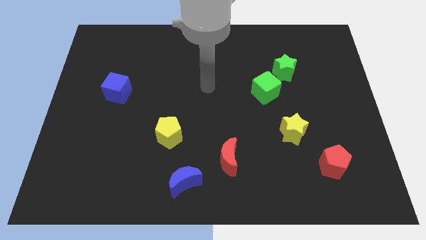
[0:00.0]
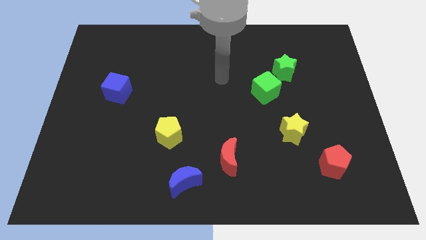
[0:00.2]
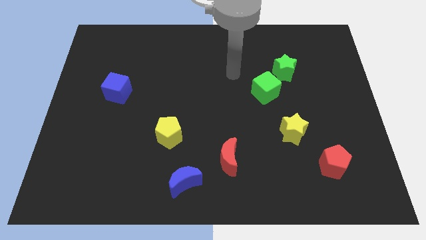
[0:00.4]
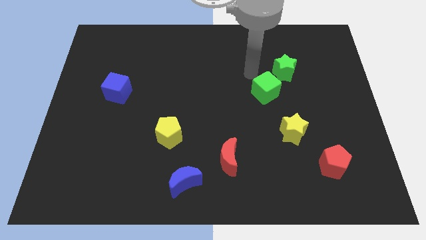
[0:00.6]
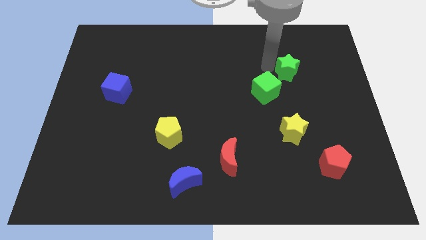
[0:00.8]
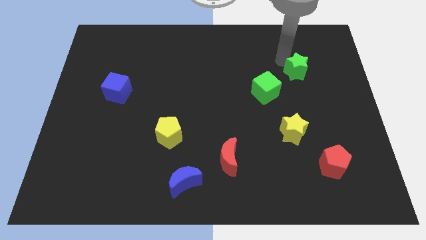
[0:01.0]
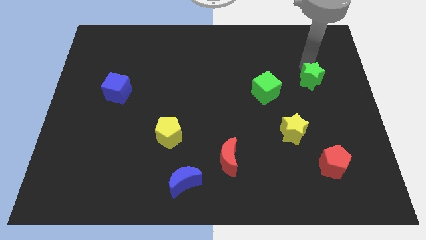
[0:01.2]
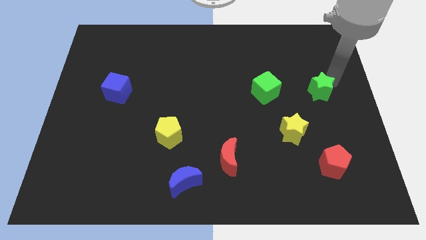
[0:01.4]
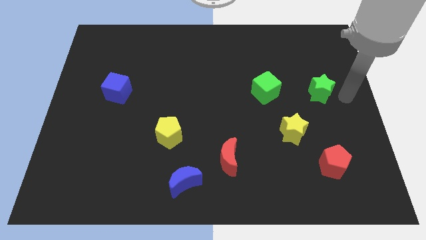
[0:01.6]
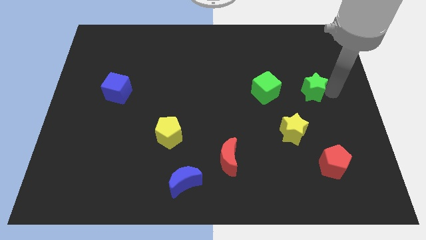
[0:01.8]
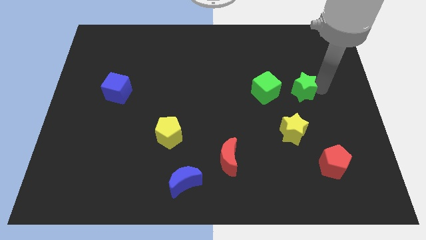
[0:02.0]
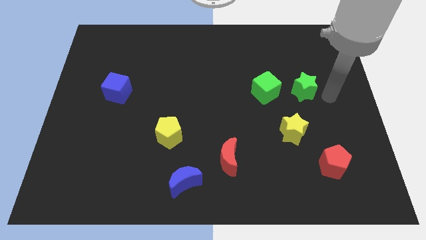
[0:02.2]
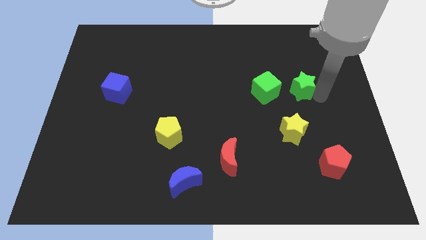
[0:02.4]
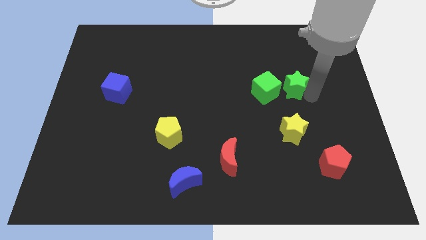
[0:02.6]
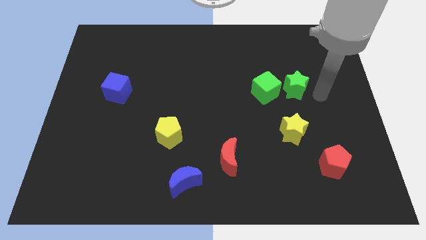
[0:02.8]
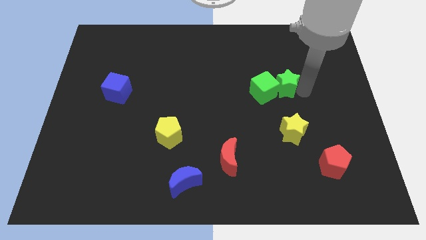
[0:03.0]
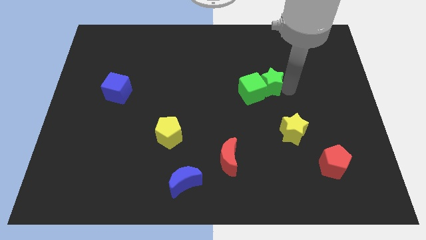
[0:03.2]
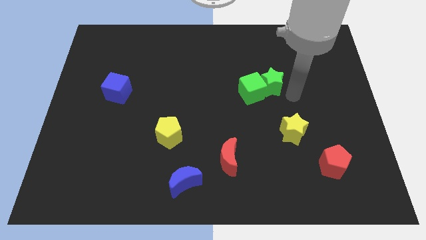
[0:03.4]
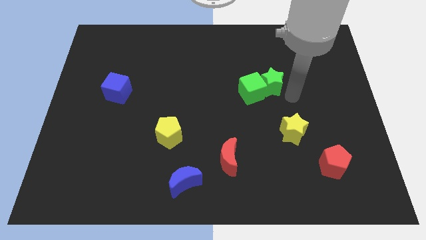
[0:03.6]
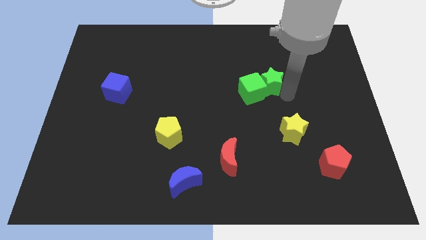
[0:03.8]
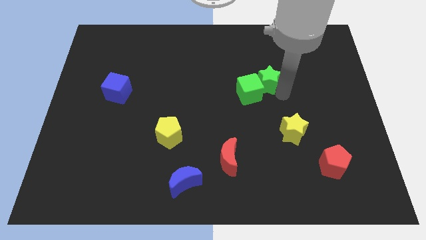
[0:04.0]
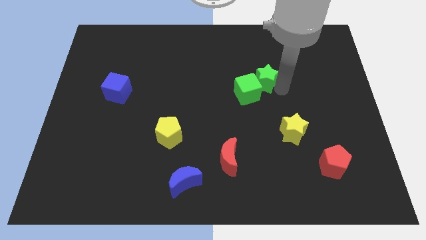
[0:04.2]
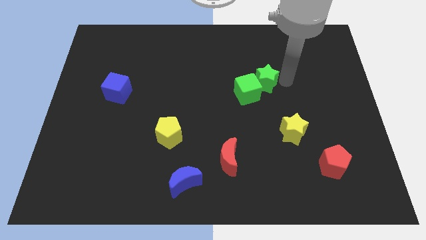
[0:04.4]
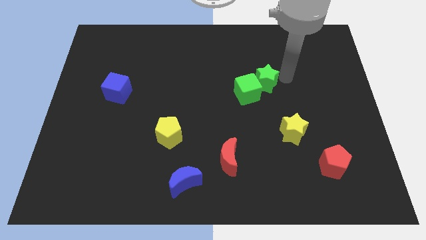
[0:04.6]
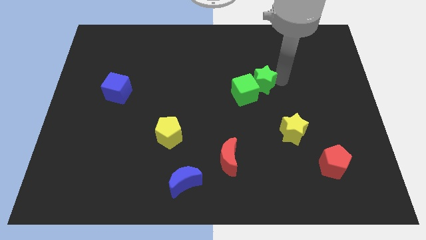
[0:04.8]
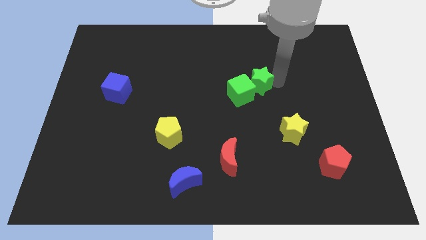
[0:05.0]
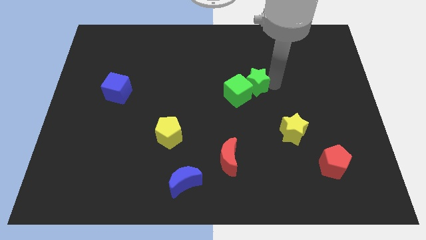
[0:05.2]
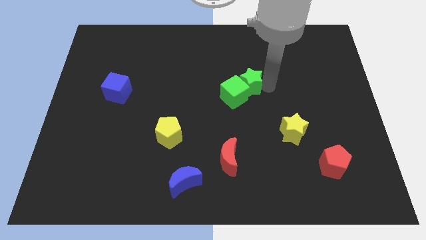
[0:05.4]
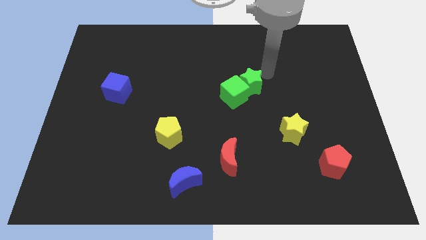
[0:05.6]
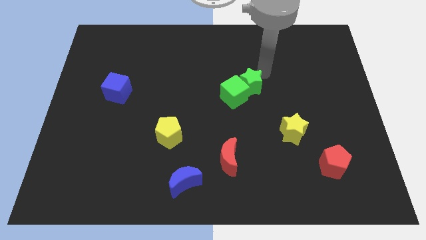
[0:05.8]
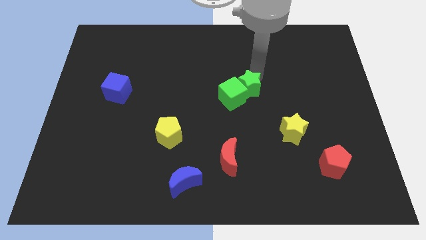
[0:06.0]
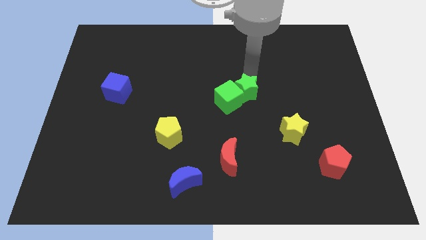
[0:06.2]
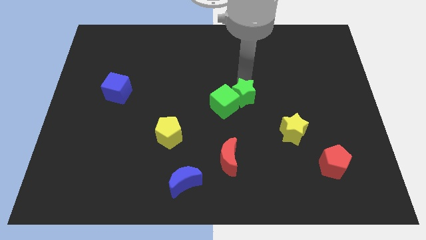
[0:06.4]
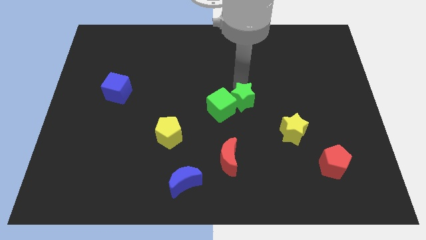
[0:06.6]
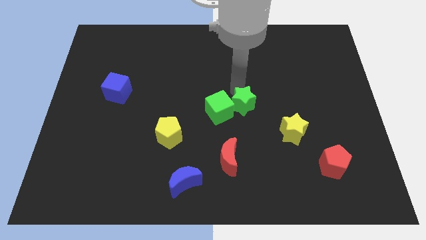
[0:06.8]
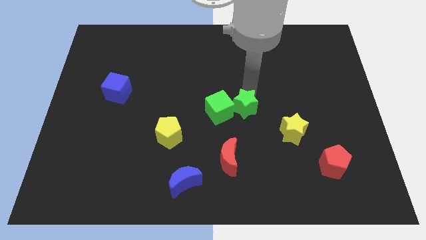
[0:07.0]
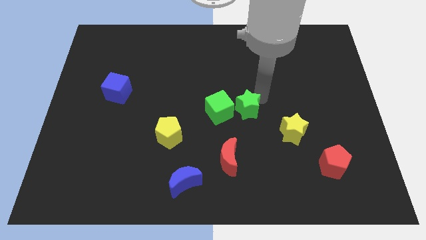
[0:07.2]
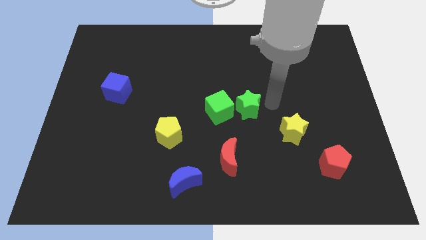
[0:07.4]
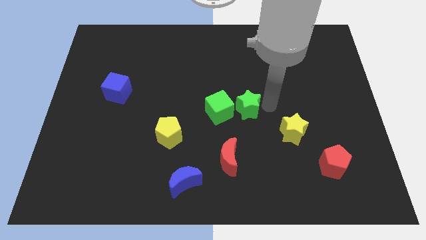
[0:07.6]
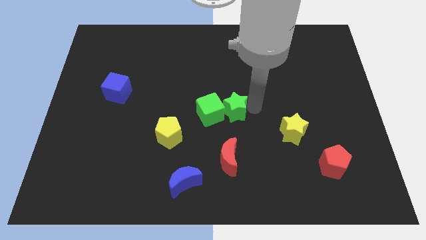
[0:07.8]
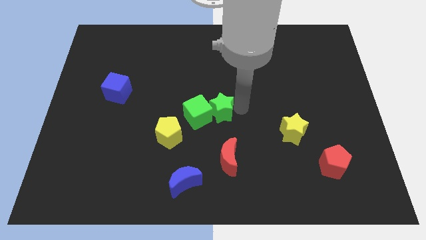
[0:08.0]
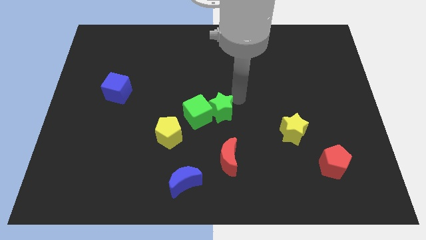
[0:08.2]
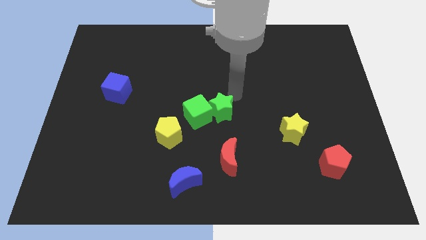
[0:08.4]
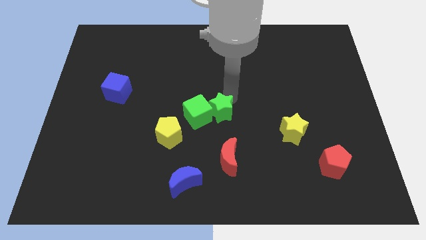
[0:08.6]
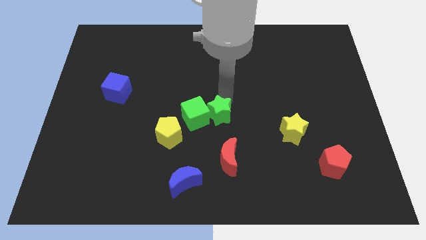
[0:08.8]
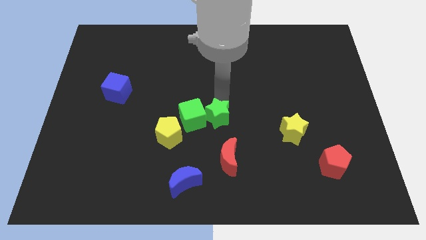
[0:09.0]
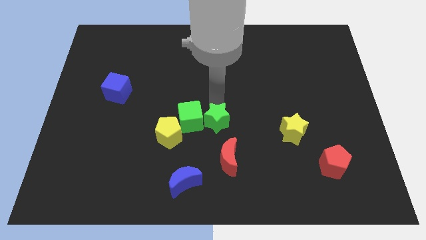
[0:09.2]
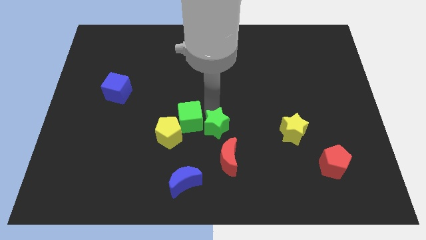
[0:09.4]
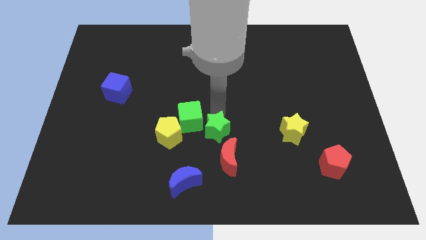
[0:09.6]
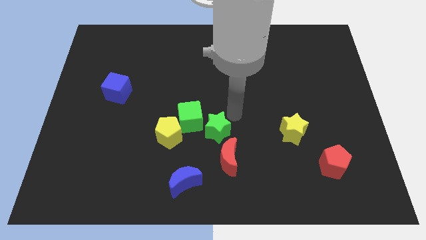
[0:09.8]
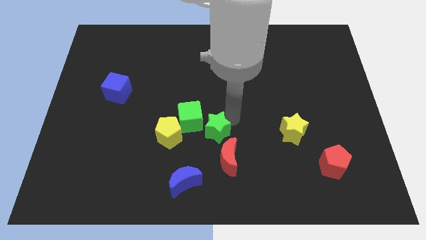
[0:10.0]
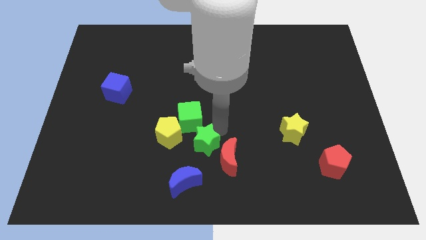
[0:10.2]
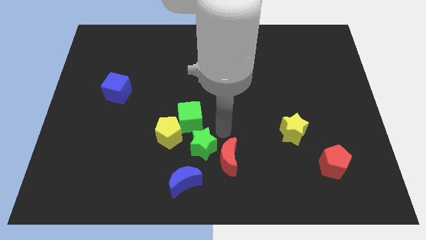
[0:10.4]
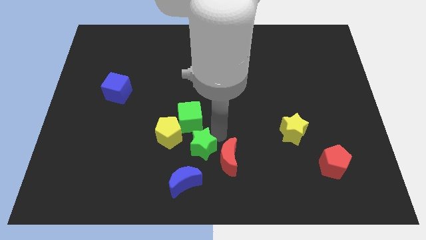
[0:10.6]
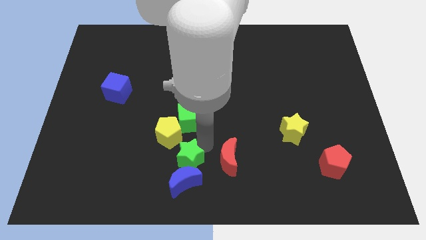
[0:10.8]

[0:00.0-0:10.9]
move the green star below the yellow pentagon

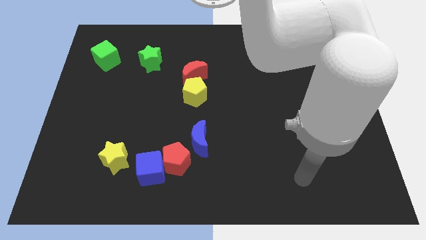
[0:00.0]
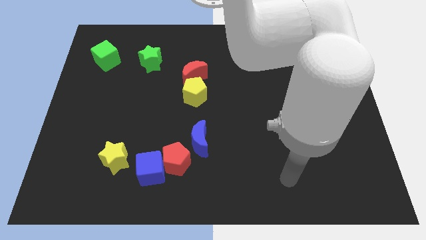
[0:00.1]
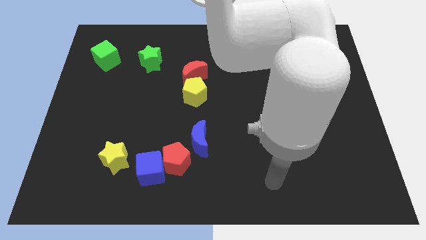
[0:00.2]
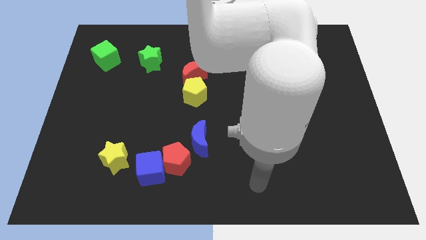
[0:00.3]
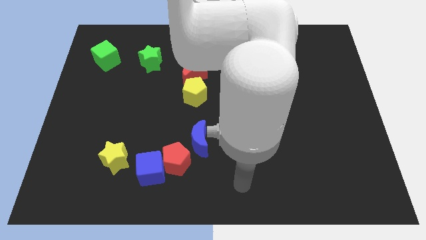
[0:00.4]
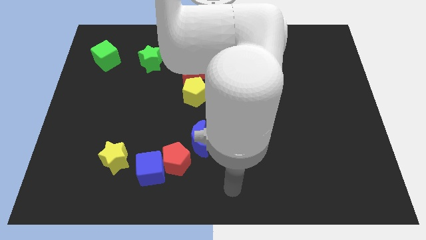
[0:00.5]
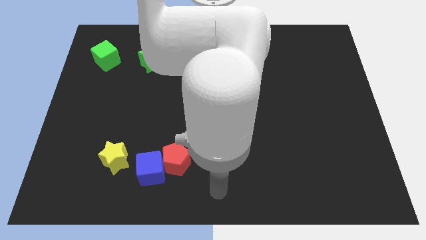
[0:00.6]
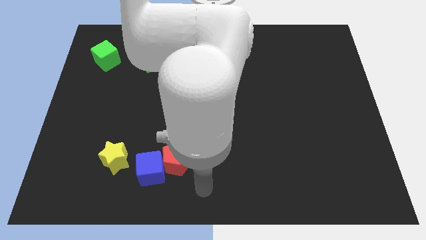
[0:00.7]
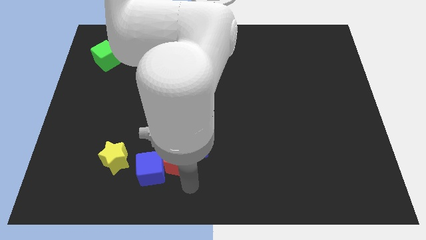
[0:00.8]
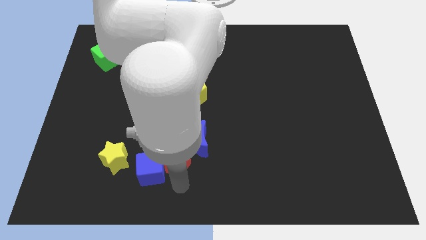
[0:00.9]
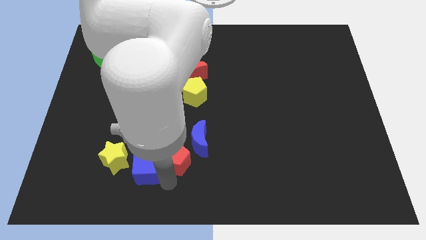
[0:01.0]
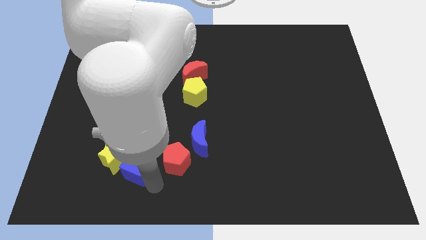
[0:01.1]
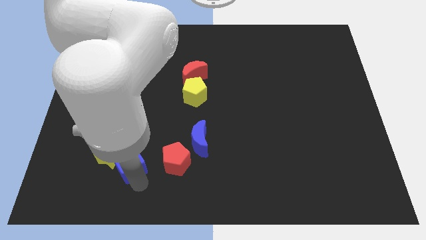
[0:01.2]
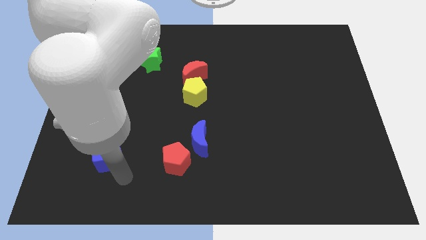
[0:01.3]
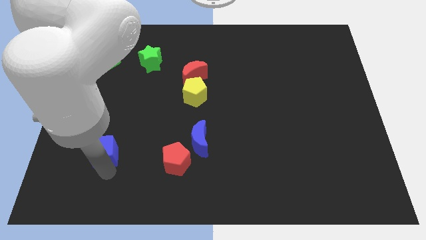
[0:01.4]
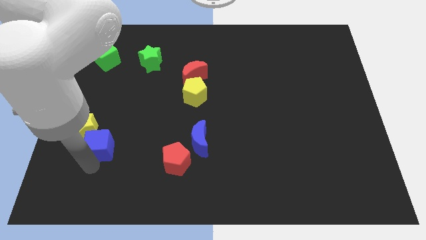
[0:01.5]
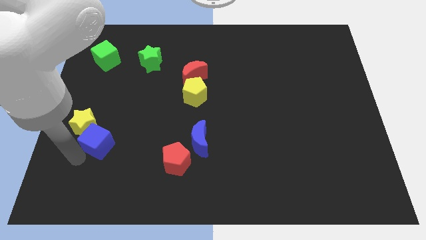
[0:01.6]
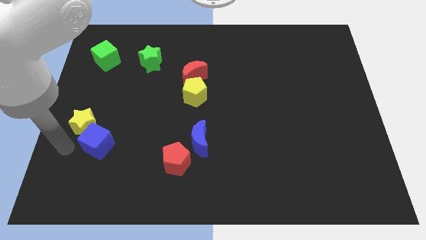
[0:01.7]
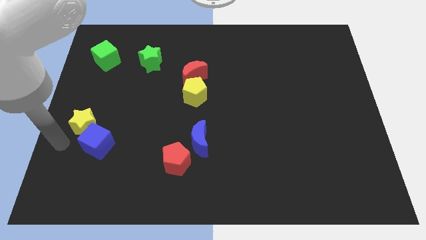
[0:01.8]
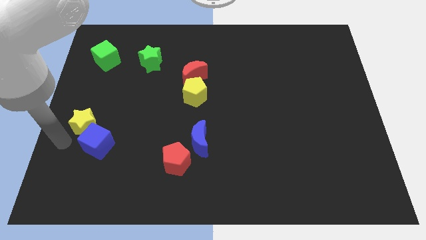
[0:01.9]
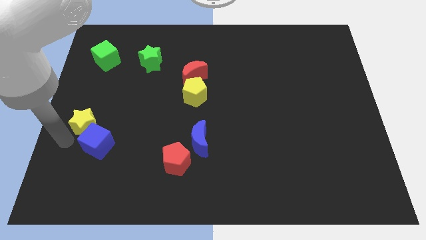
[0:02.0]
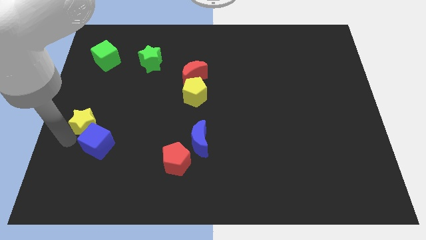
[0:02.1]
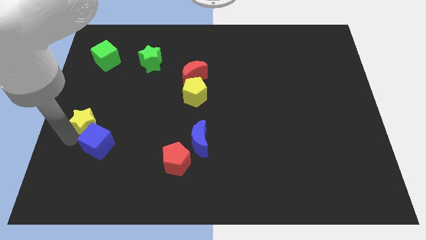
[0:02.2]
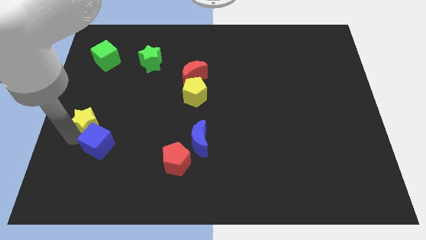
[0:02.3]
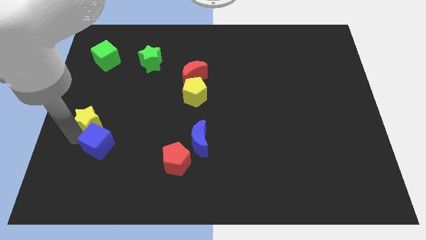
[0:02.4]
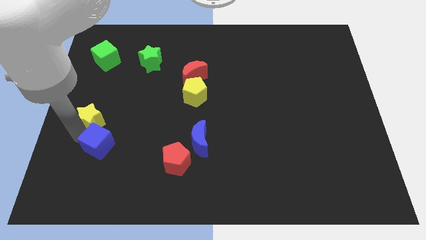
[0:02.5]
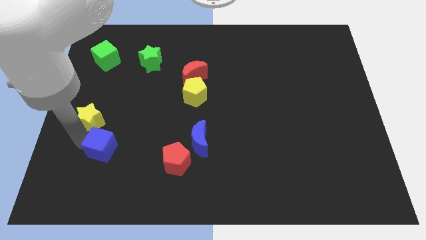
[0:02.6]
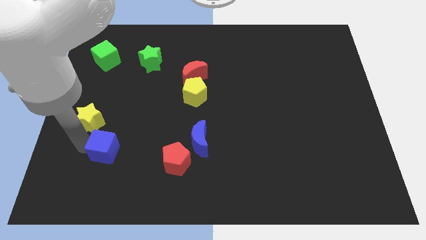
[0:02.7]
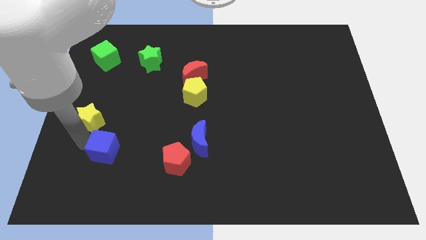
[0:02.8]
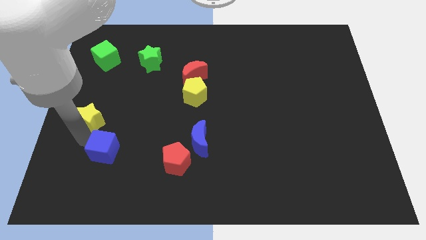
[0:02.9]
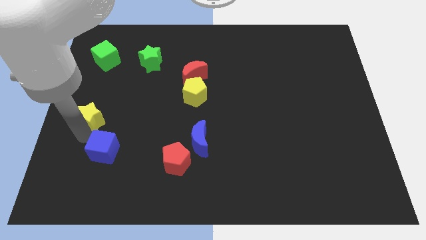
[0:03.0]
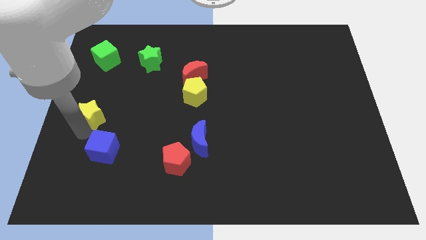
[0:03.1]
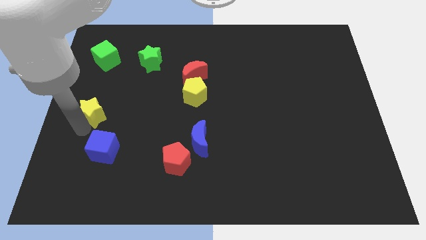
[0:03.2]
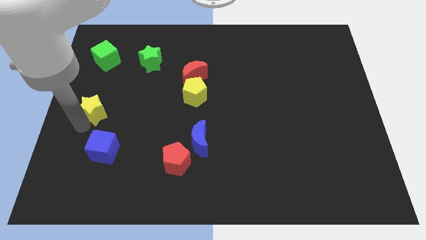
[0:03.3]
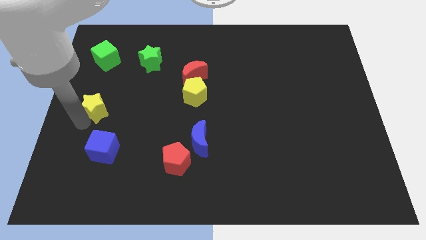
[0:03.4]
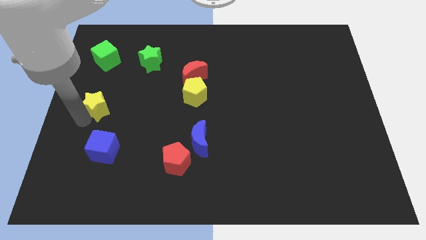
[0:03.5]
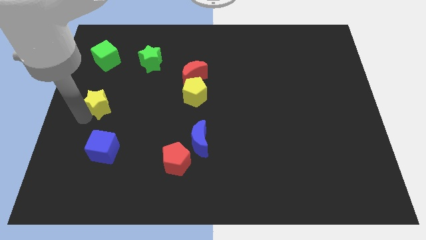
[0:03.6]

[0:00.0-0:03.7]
move the yellow star to the bottom side of the green cube
